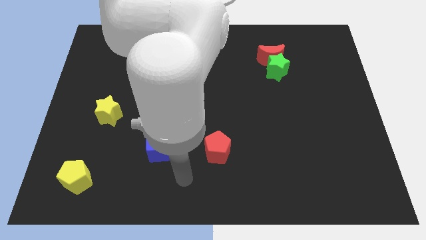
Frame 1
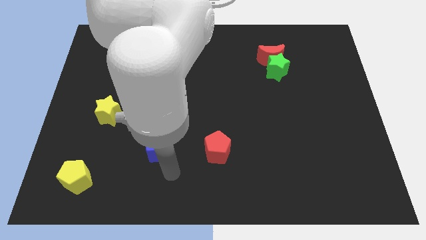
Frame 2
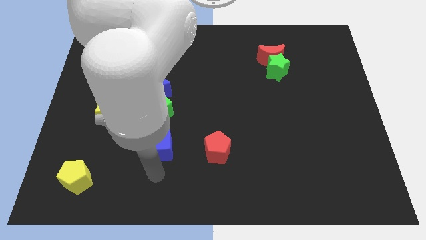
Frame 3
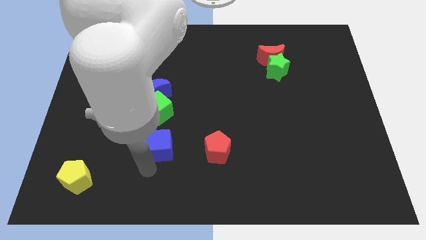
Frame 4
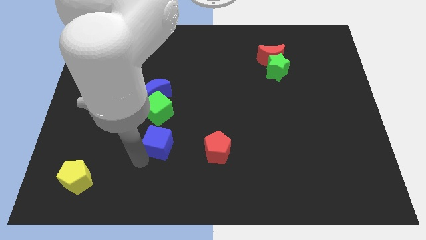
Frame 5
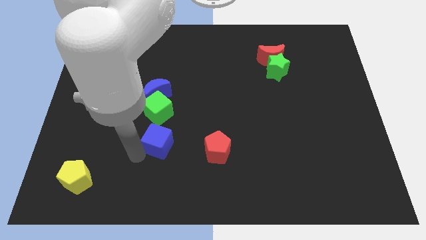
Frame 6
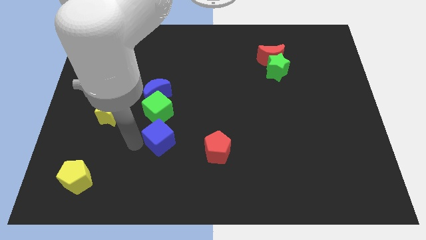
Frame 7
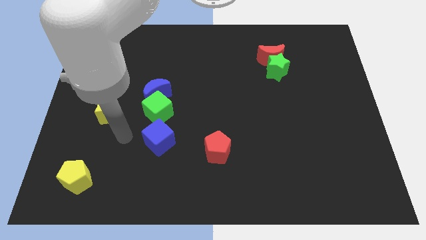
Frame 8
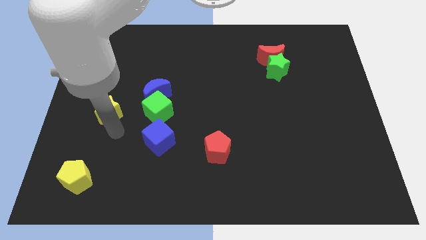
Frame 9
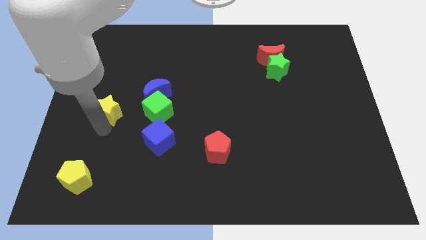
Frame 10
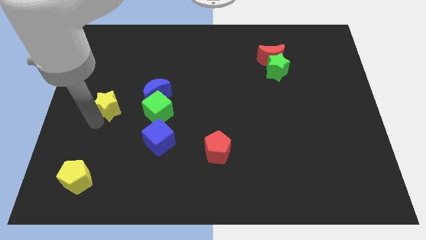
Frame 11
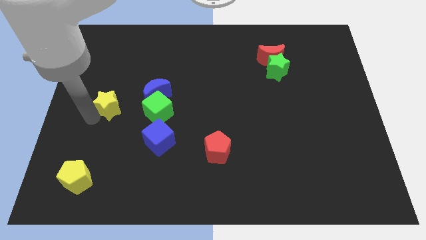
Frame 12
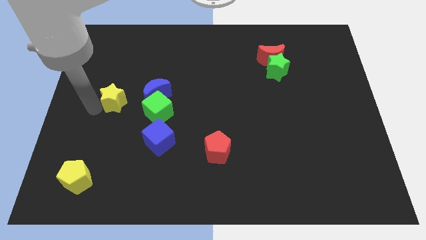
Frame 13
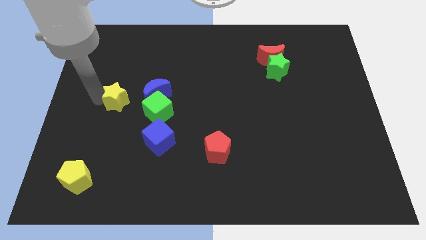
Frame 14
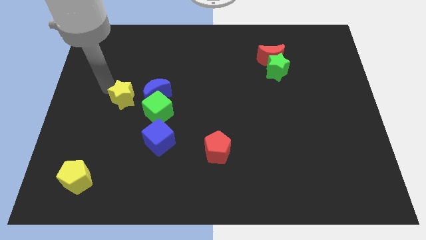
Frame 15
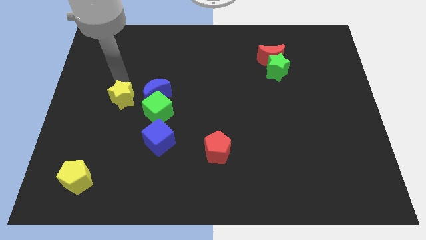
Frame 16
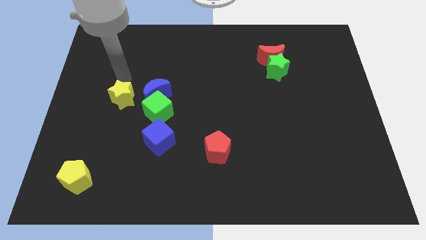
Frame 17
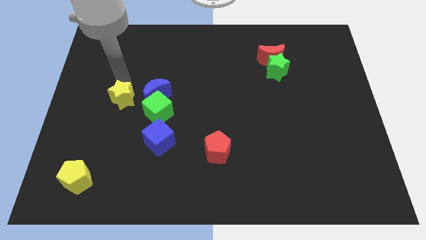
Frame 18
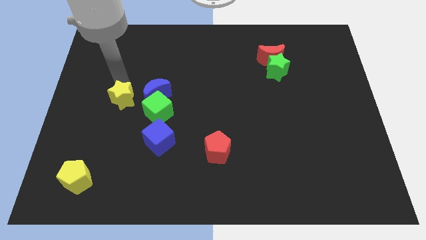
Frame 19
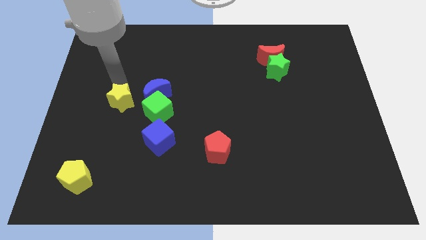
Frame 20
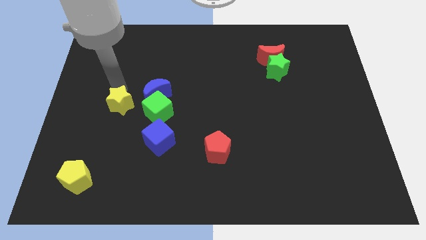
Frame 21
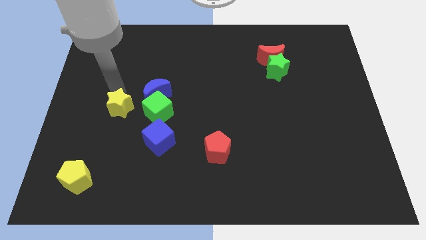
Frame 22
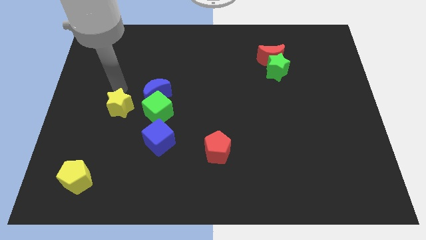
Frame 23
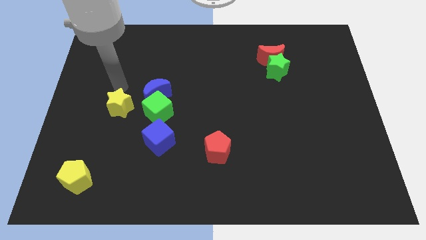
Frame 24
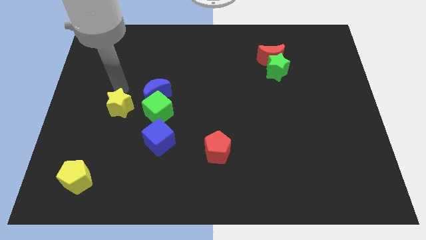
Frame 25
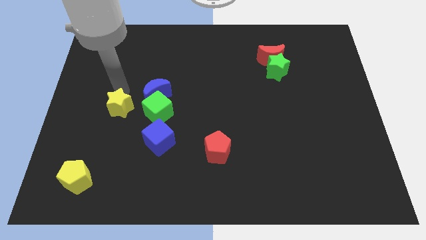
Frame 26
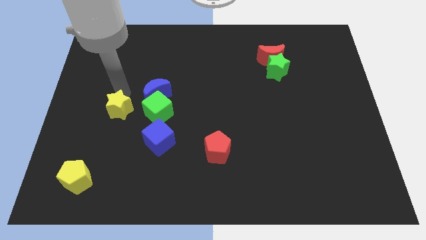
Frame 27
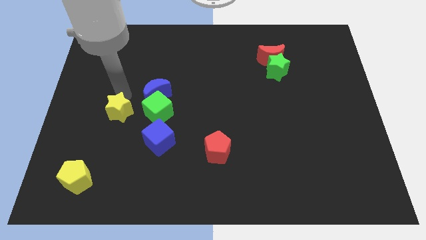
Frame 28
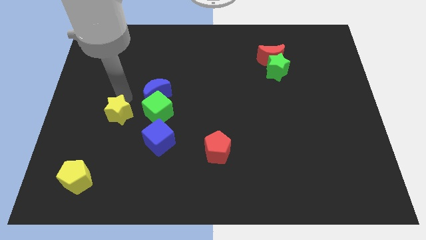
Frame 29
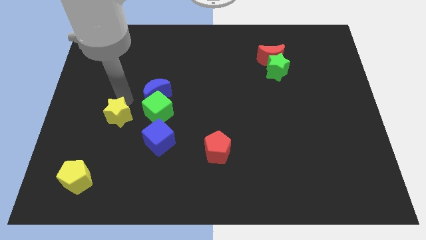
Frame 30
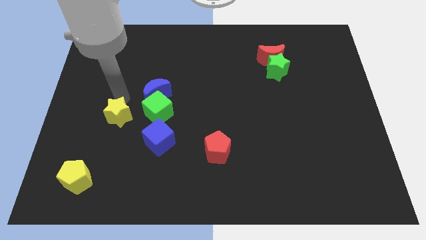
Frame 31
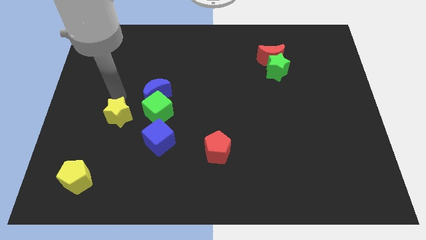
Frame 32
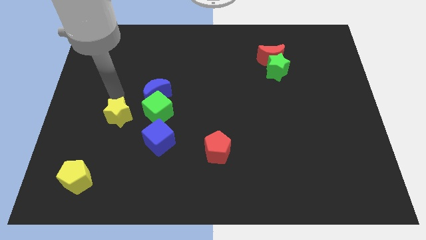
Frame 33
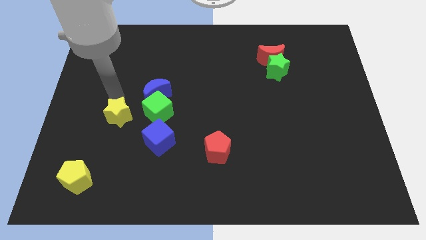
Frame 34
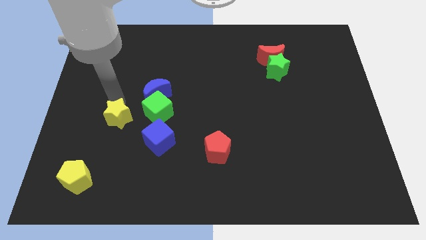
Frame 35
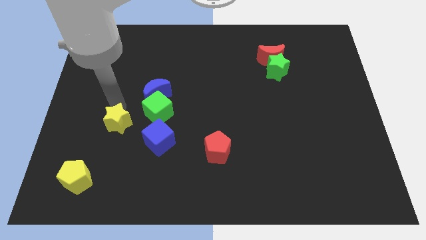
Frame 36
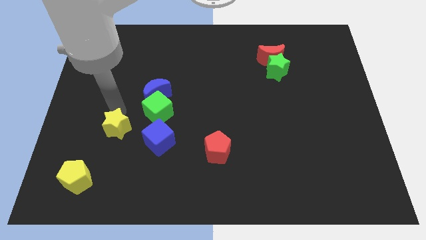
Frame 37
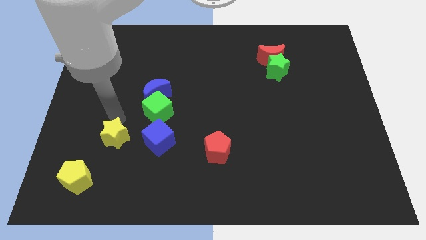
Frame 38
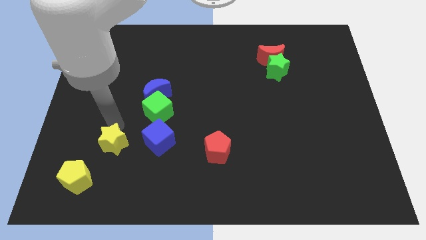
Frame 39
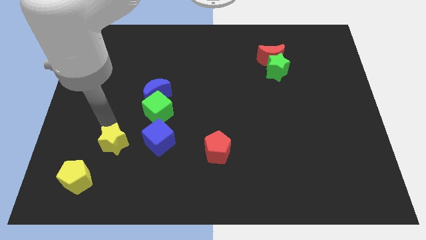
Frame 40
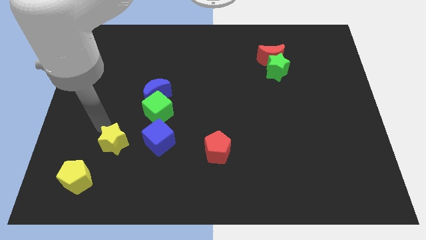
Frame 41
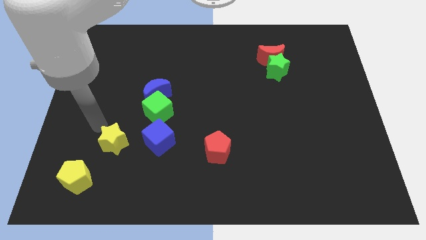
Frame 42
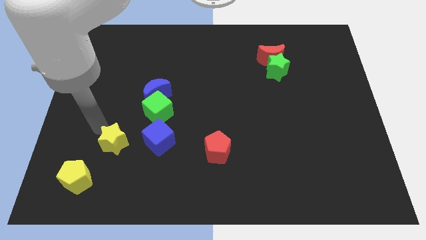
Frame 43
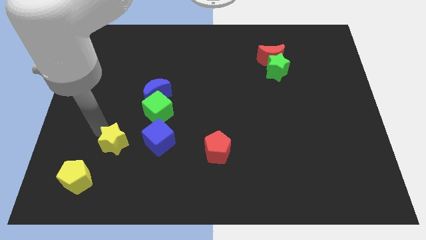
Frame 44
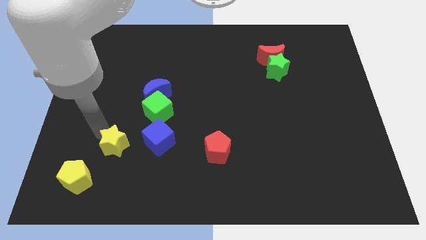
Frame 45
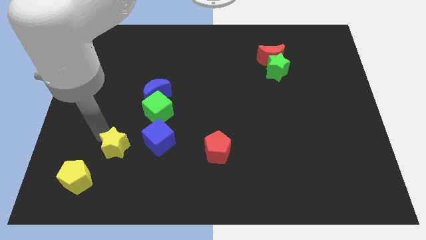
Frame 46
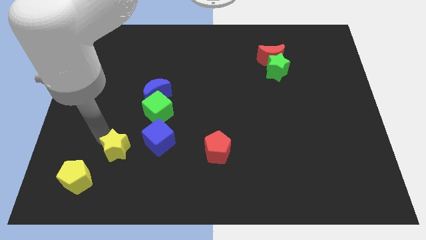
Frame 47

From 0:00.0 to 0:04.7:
put the yellow star to the bottom left of the blue cube

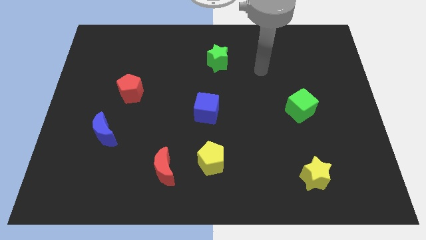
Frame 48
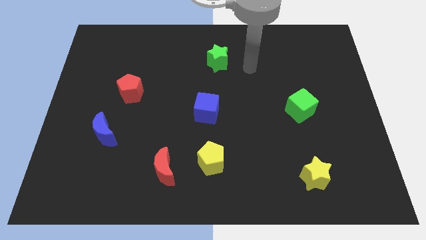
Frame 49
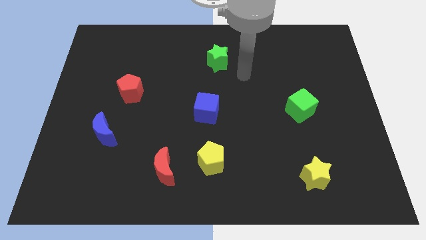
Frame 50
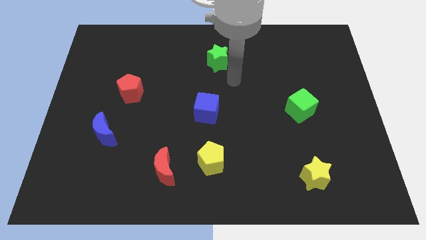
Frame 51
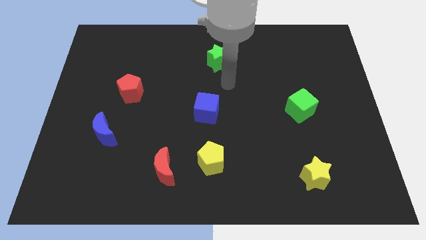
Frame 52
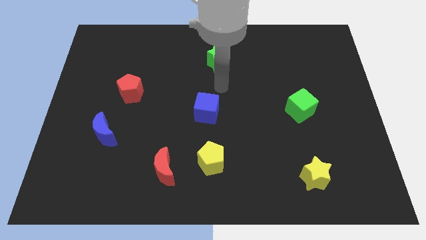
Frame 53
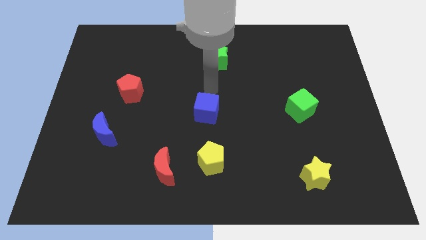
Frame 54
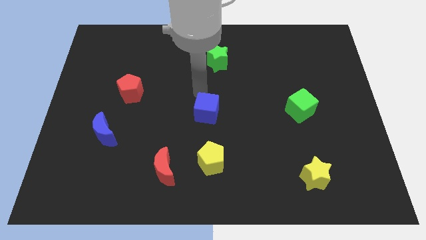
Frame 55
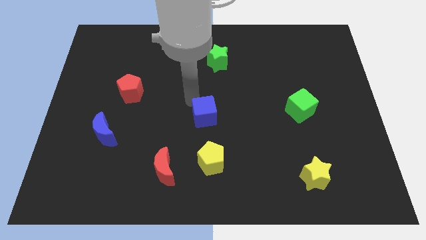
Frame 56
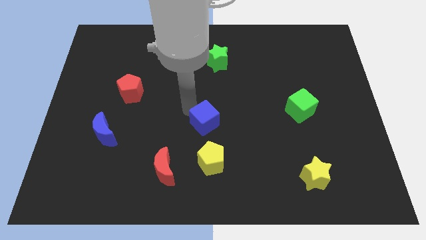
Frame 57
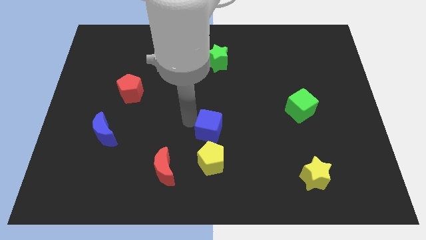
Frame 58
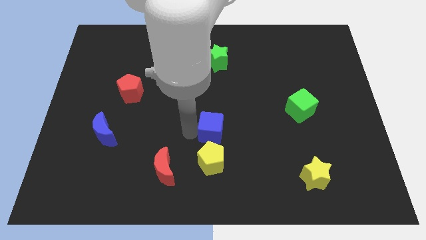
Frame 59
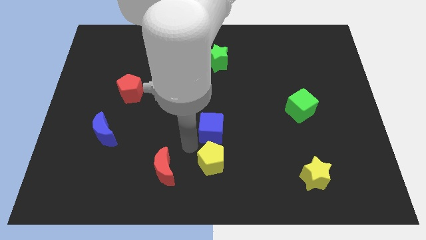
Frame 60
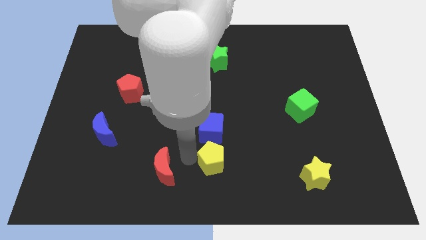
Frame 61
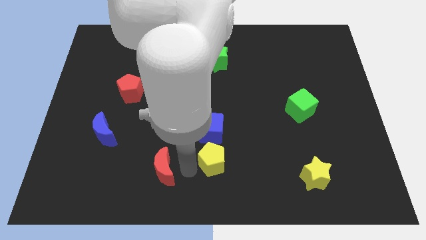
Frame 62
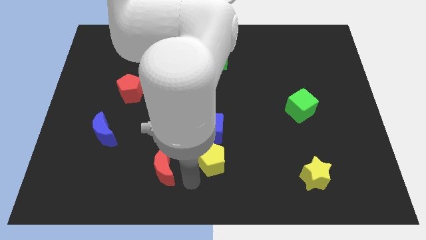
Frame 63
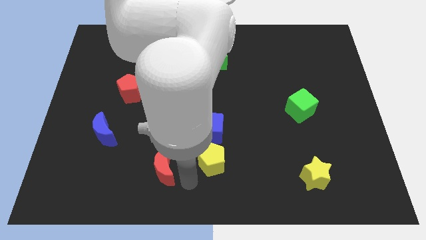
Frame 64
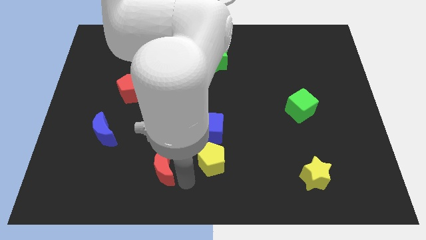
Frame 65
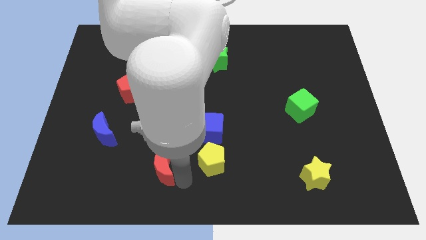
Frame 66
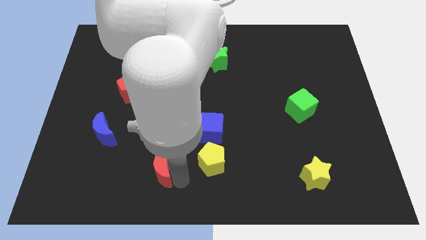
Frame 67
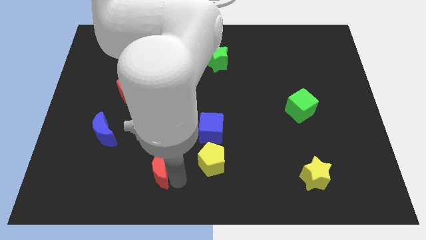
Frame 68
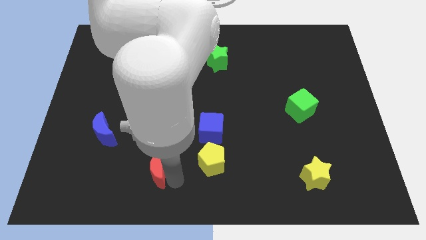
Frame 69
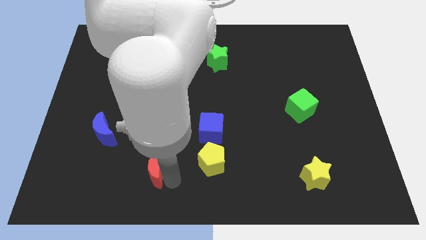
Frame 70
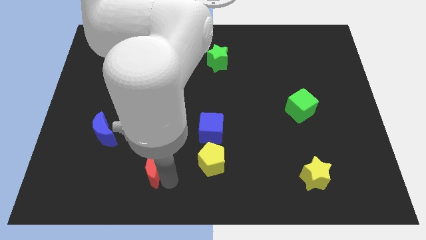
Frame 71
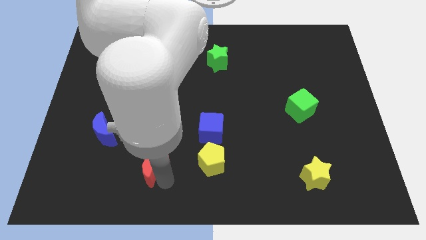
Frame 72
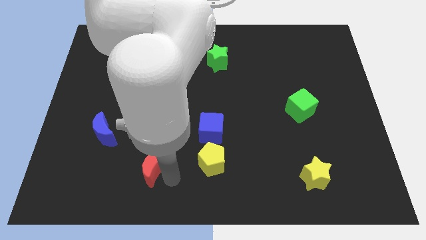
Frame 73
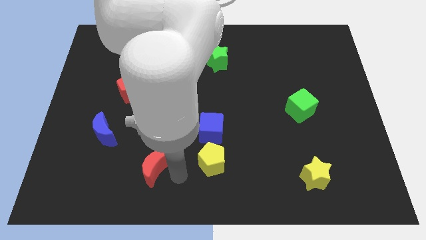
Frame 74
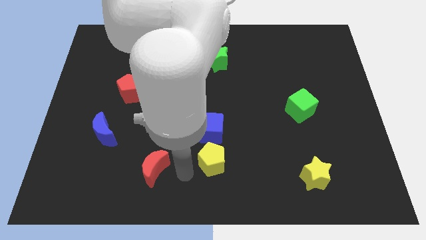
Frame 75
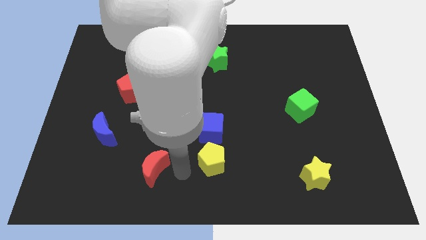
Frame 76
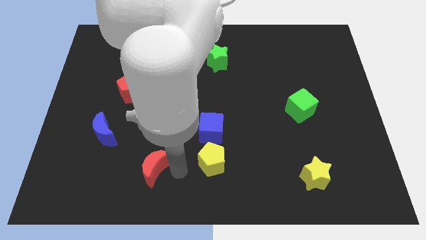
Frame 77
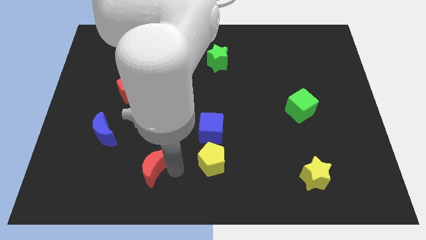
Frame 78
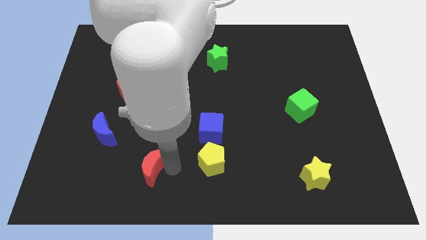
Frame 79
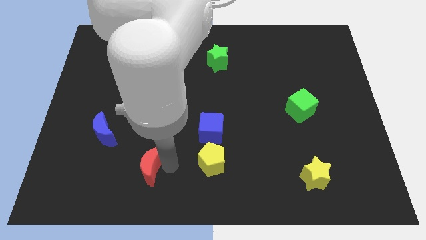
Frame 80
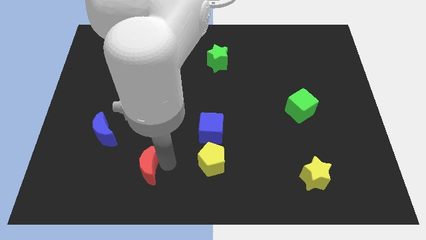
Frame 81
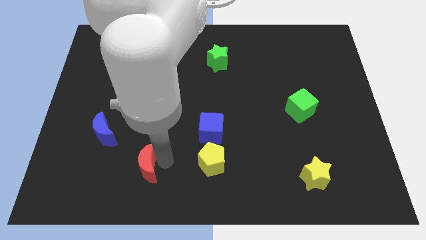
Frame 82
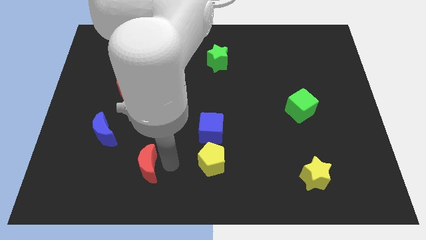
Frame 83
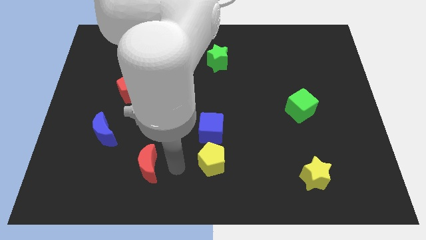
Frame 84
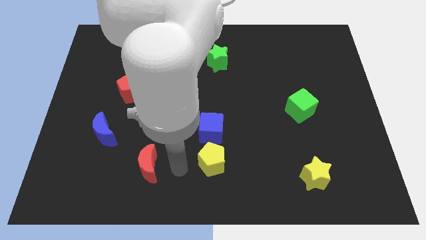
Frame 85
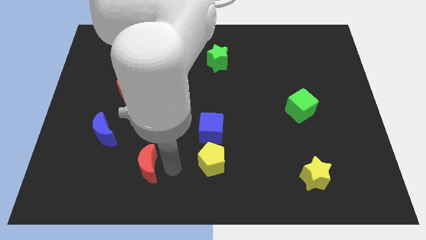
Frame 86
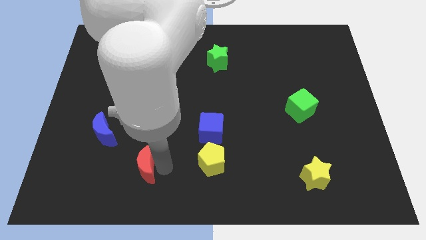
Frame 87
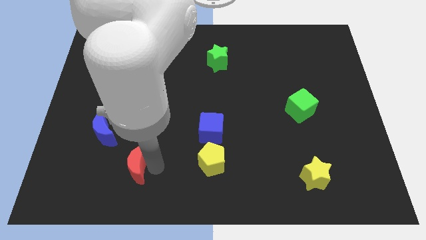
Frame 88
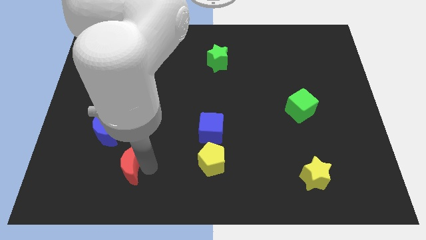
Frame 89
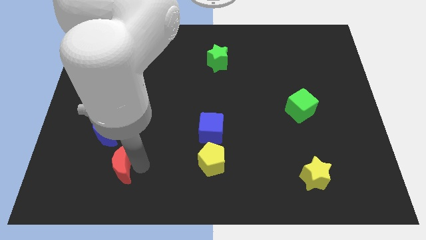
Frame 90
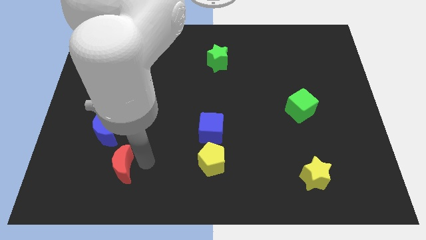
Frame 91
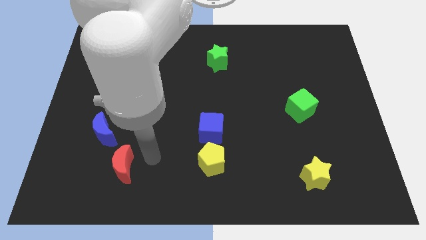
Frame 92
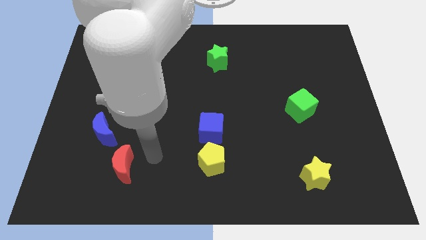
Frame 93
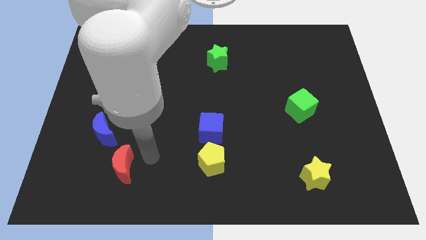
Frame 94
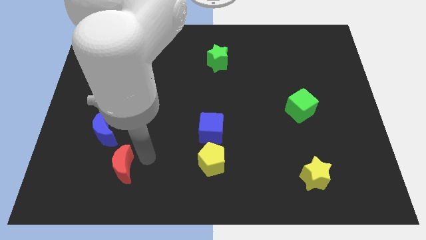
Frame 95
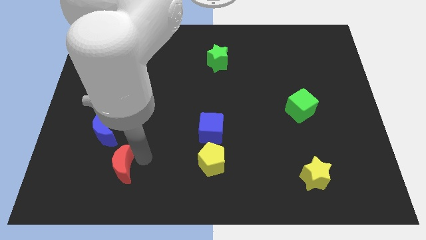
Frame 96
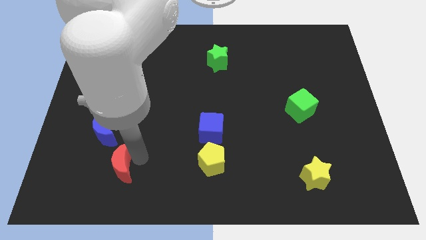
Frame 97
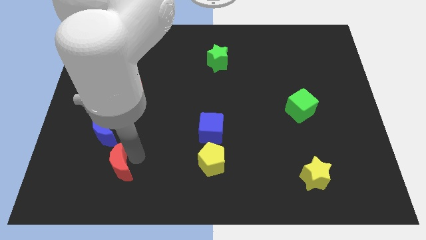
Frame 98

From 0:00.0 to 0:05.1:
put the red moon to the bottom of the blue moon
